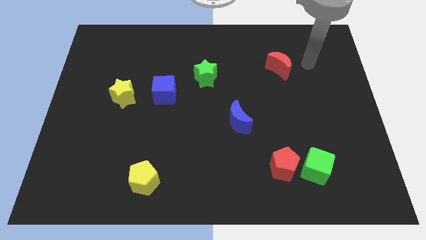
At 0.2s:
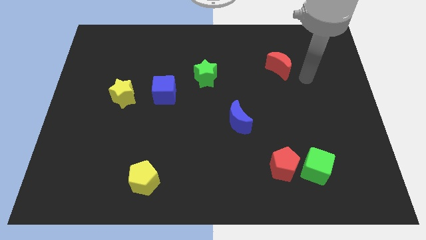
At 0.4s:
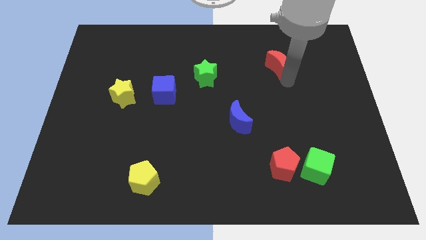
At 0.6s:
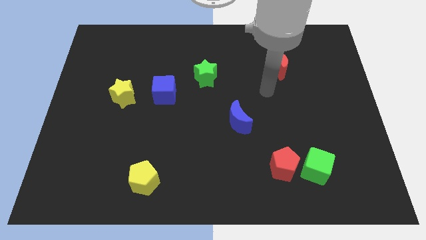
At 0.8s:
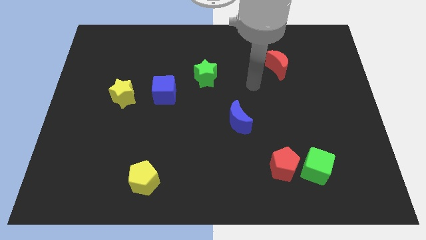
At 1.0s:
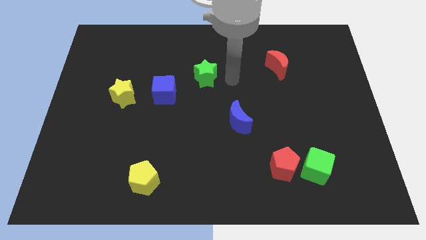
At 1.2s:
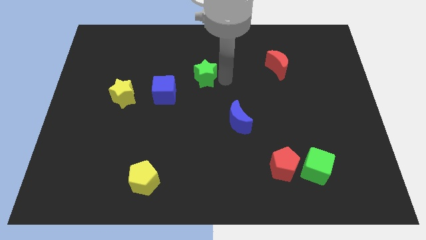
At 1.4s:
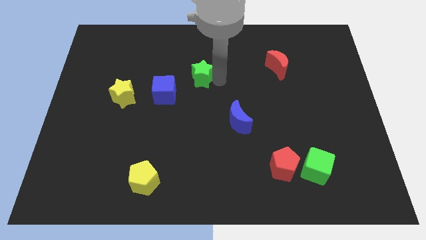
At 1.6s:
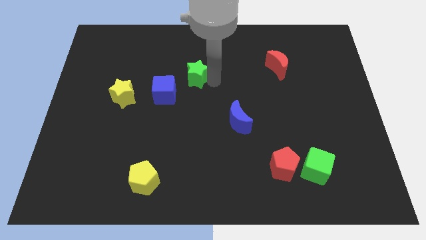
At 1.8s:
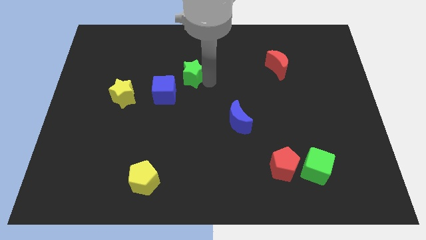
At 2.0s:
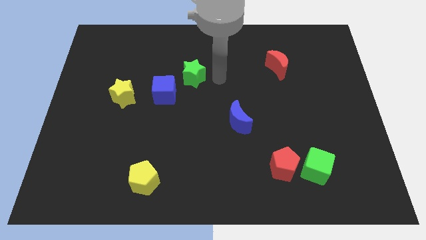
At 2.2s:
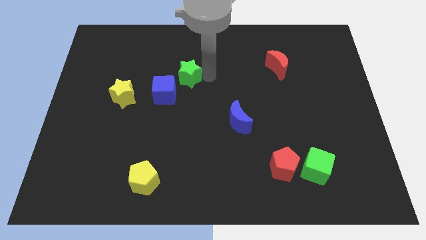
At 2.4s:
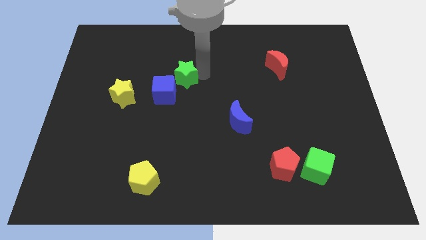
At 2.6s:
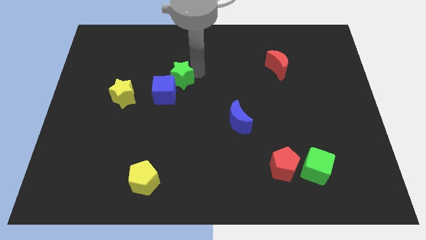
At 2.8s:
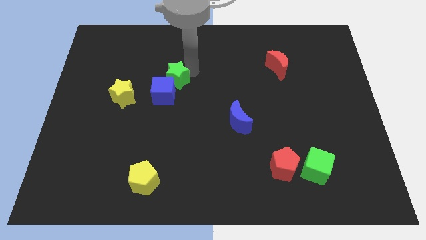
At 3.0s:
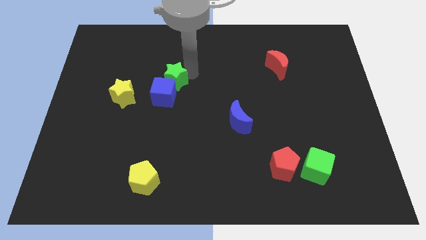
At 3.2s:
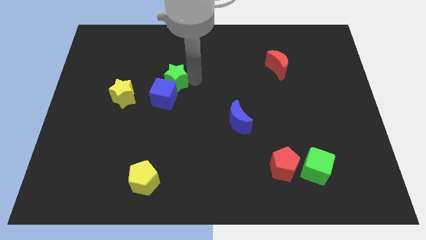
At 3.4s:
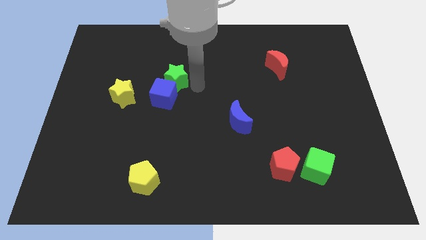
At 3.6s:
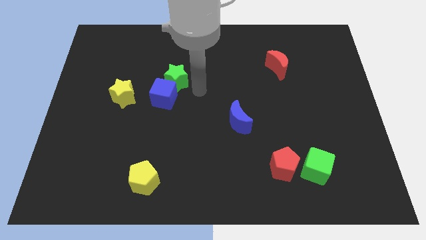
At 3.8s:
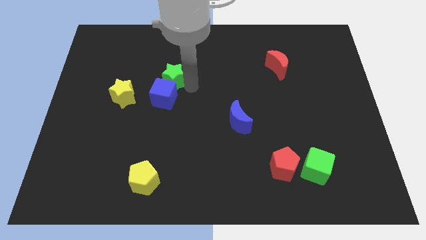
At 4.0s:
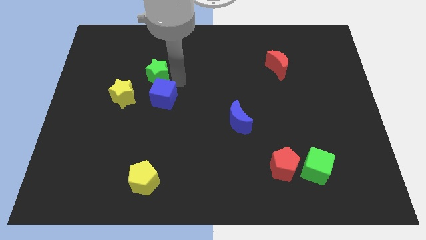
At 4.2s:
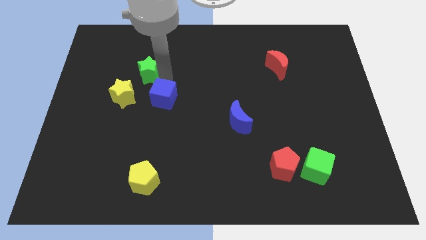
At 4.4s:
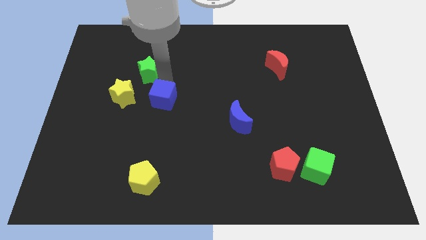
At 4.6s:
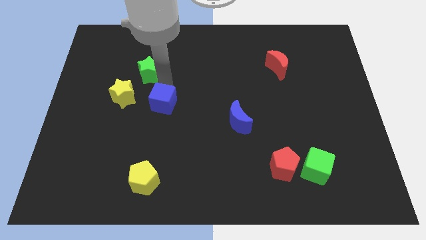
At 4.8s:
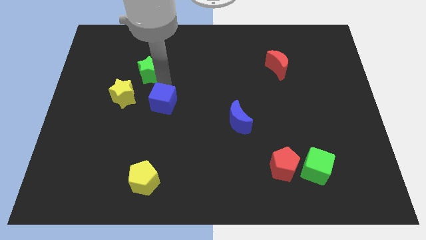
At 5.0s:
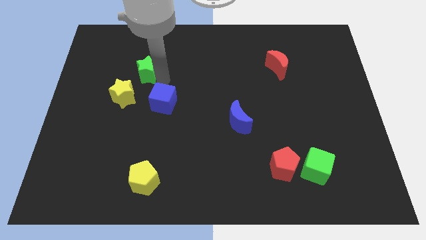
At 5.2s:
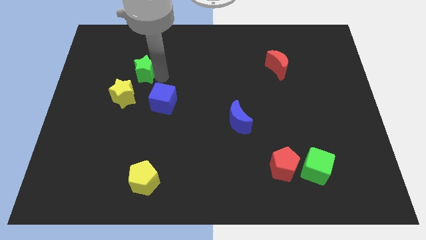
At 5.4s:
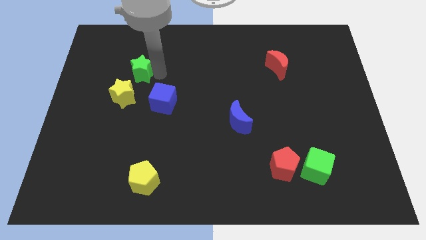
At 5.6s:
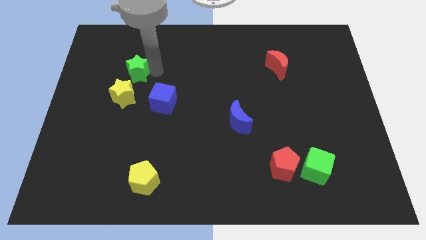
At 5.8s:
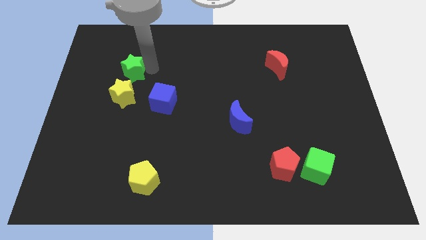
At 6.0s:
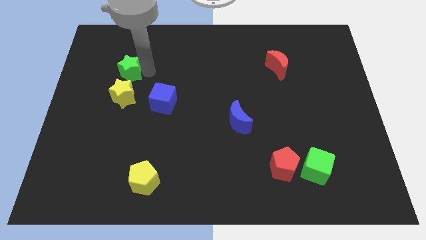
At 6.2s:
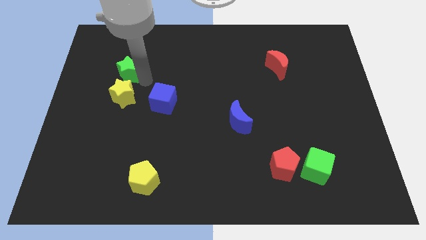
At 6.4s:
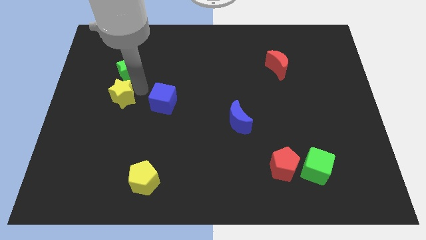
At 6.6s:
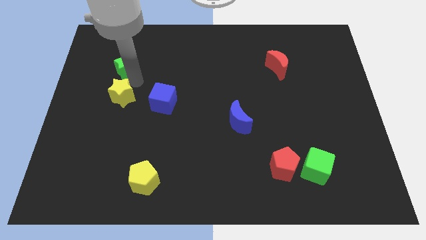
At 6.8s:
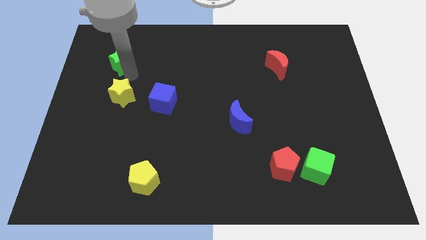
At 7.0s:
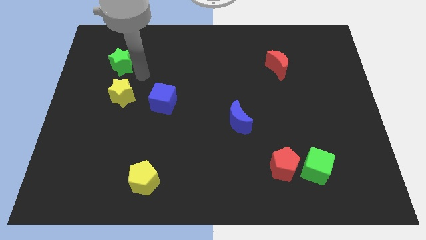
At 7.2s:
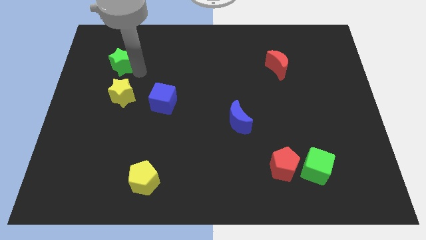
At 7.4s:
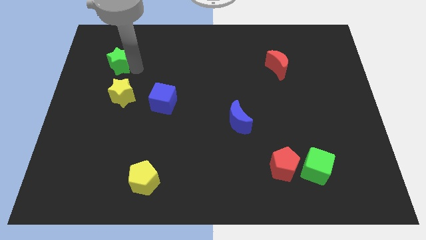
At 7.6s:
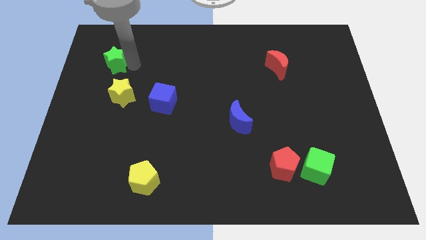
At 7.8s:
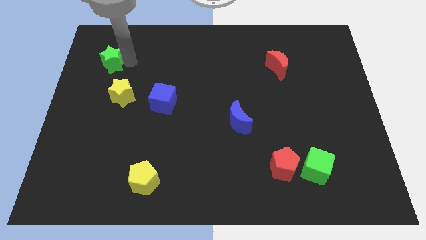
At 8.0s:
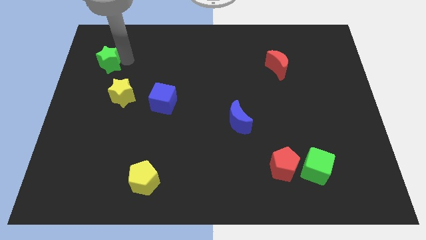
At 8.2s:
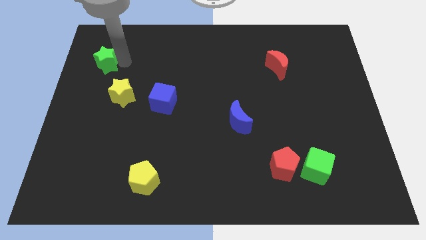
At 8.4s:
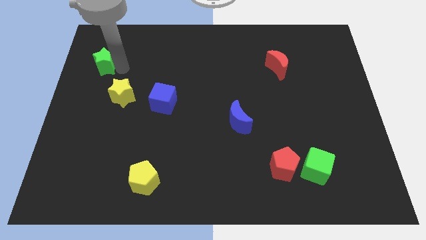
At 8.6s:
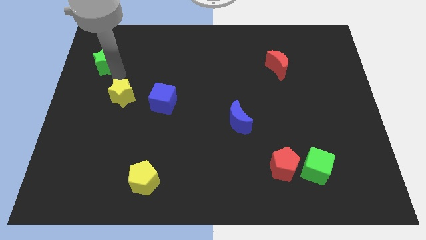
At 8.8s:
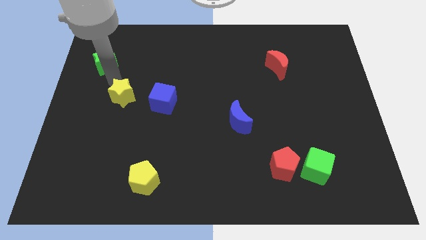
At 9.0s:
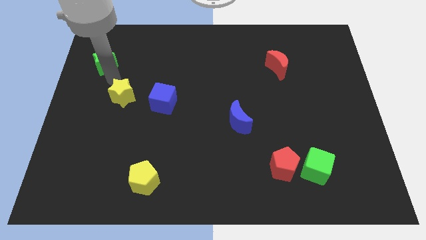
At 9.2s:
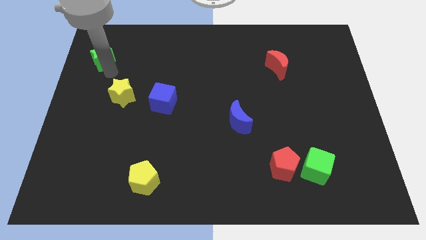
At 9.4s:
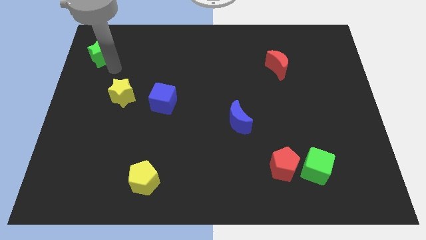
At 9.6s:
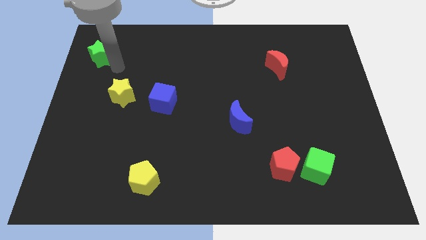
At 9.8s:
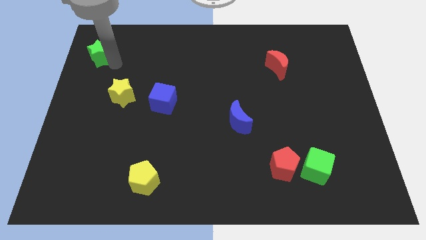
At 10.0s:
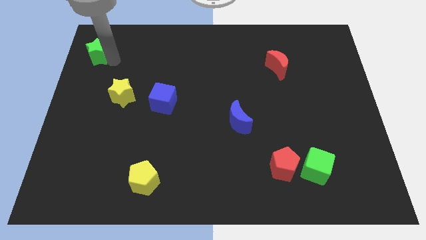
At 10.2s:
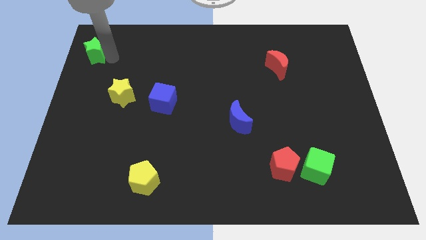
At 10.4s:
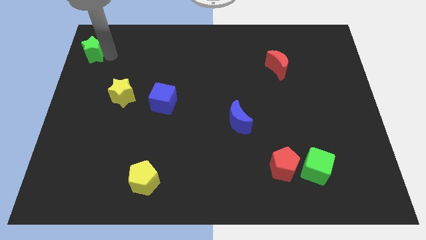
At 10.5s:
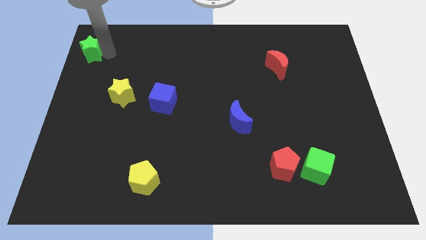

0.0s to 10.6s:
put the green star to the top left of the board
